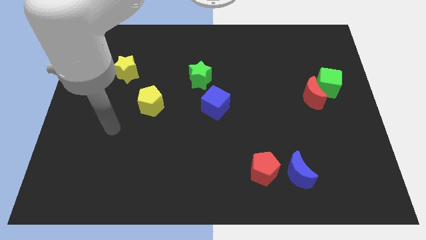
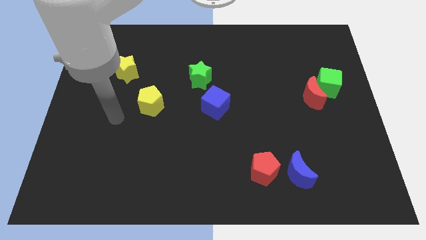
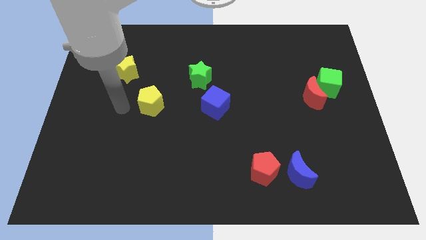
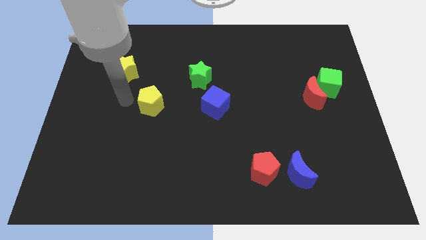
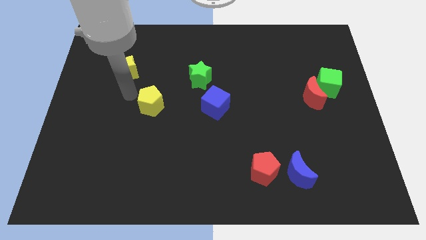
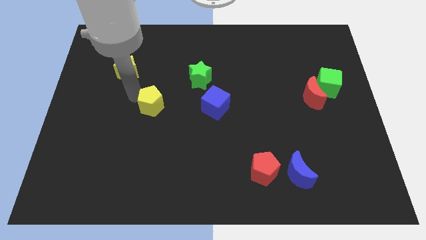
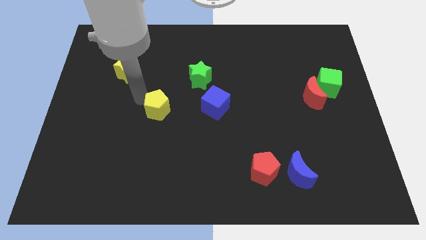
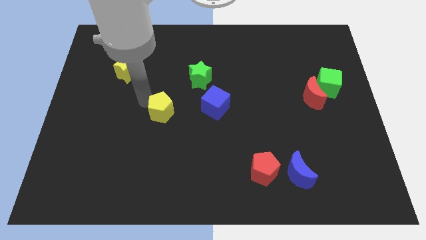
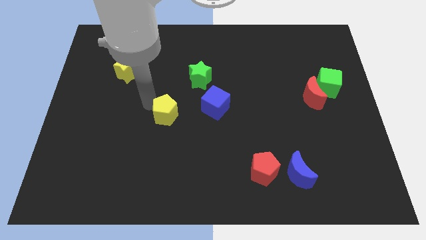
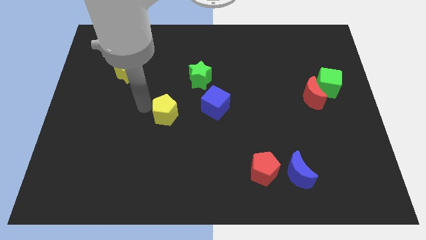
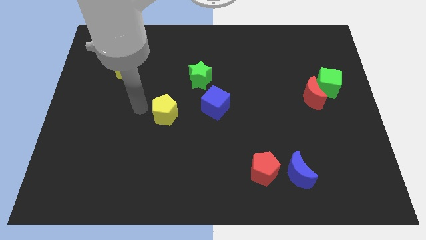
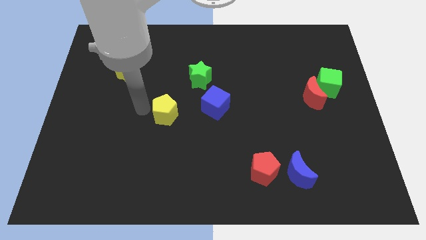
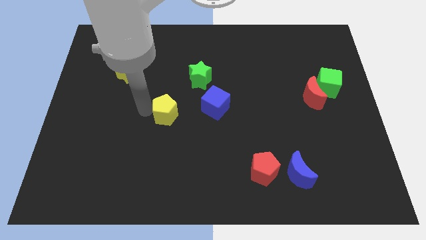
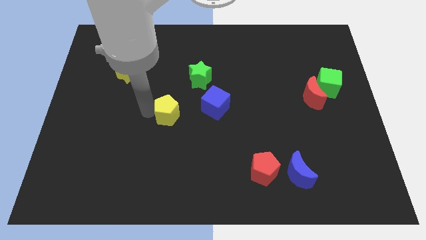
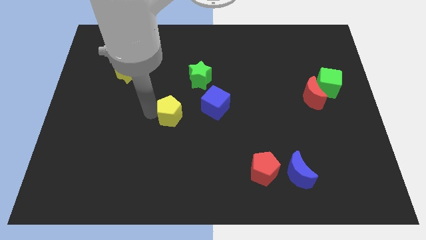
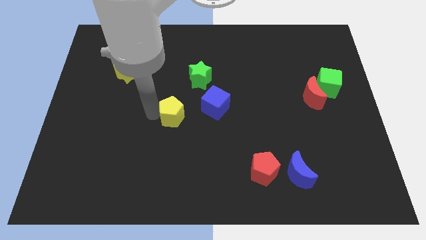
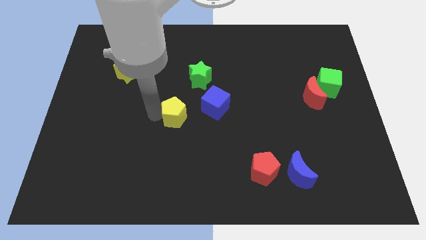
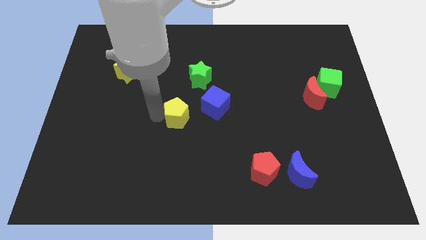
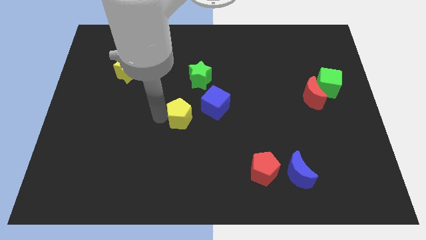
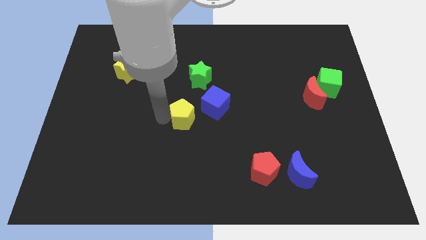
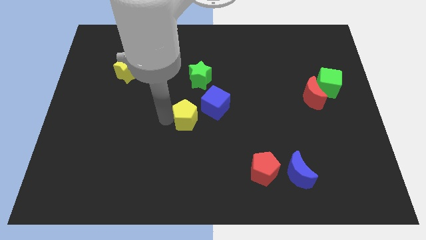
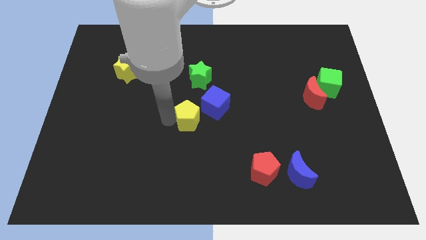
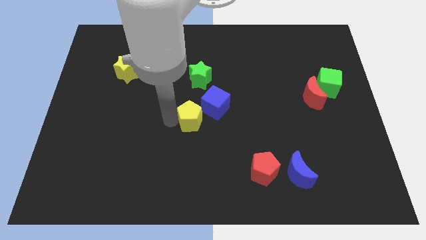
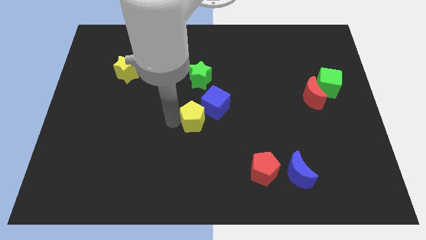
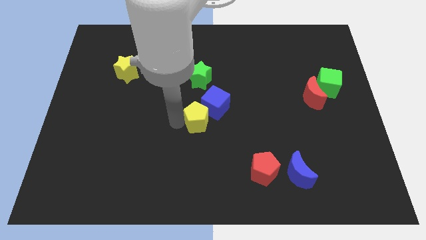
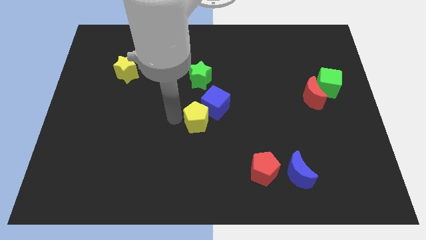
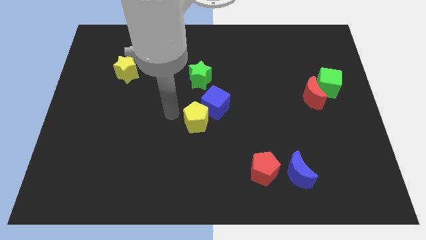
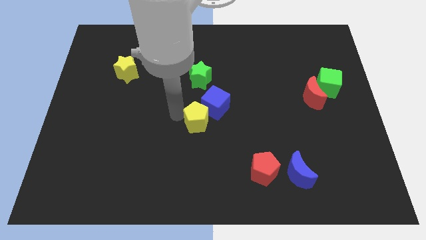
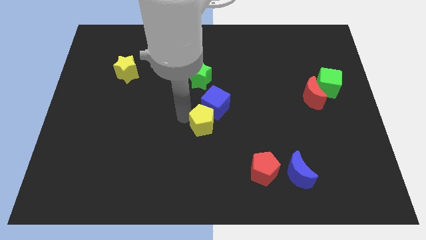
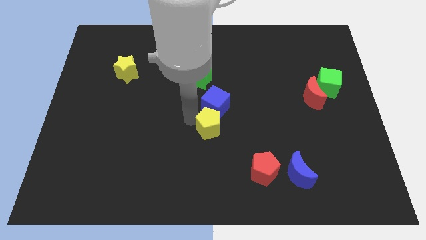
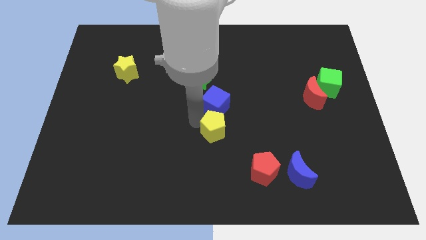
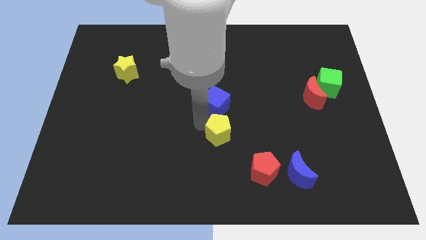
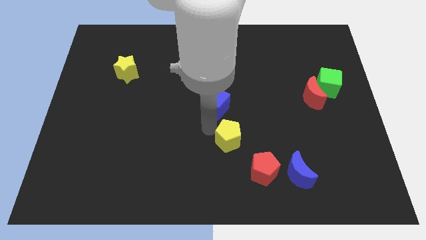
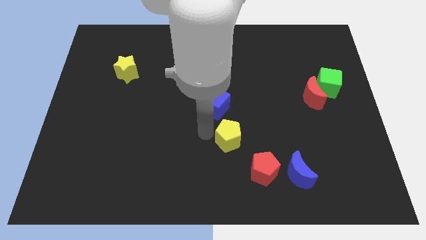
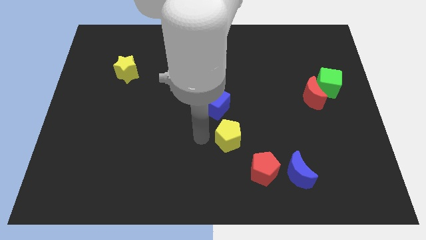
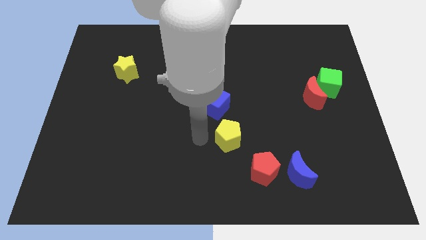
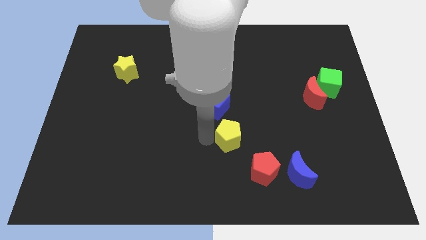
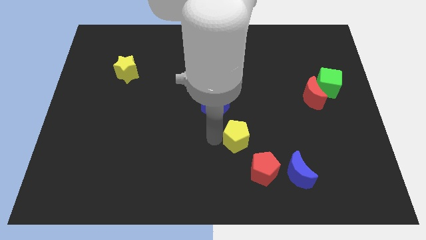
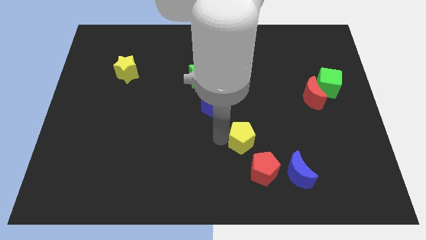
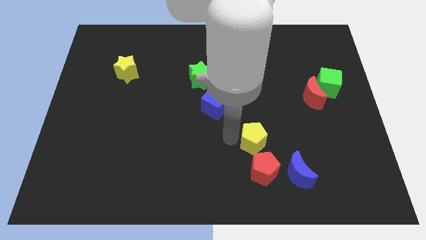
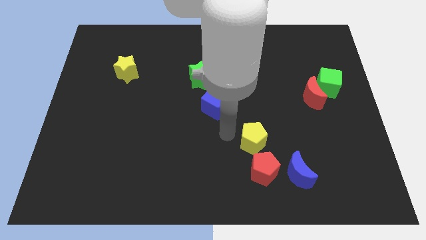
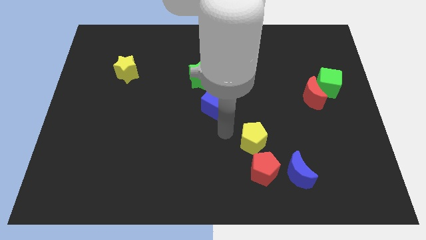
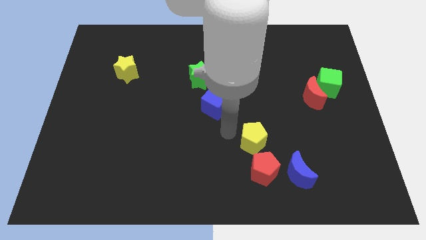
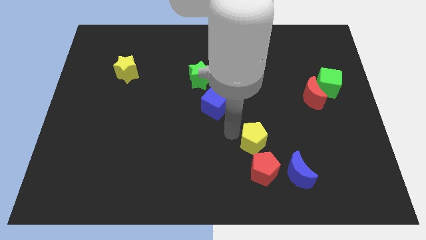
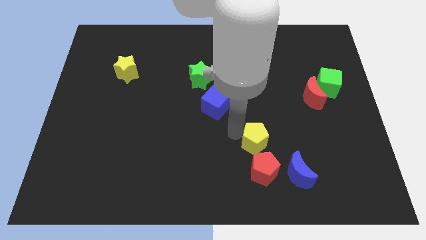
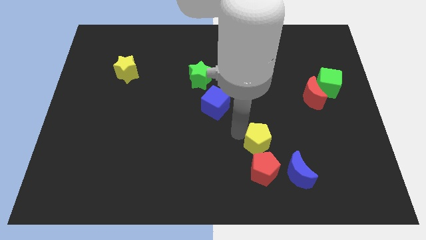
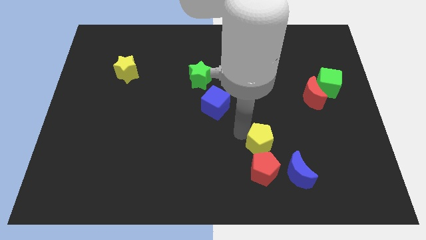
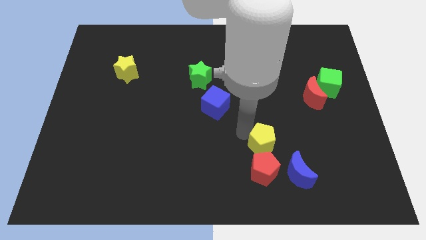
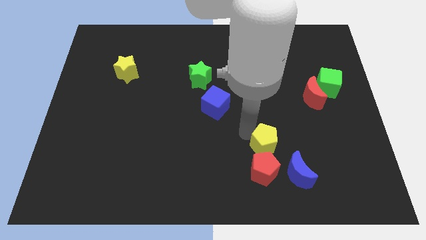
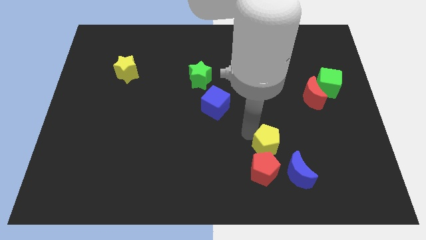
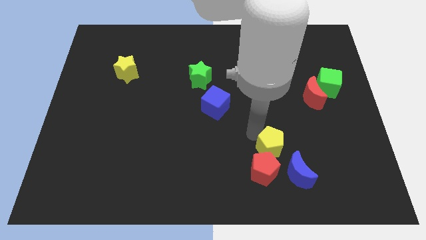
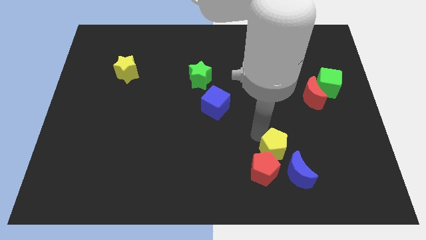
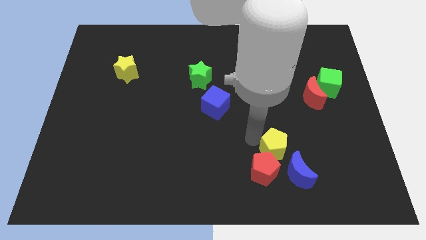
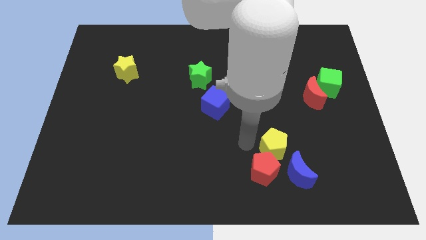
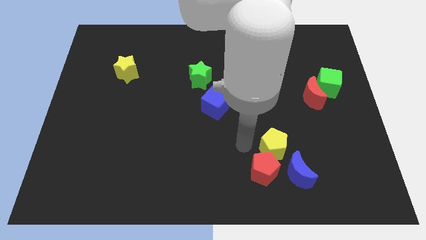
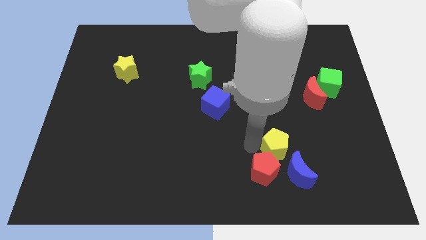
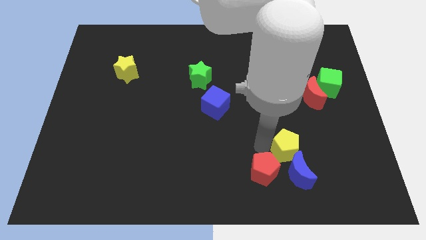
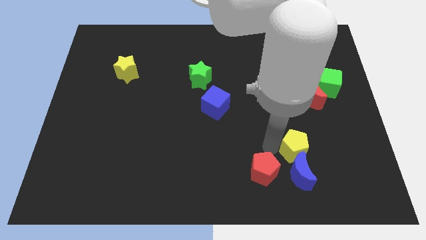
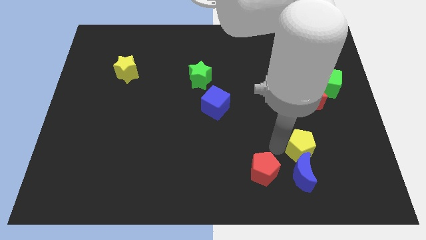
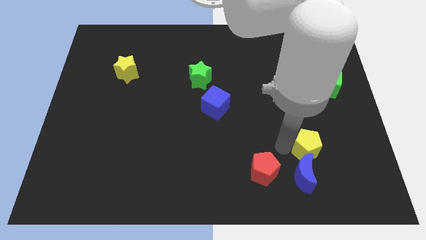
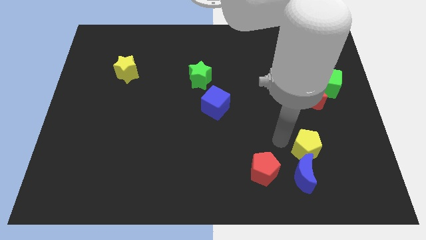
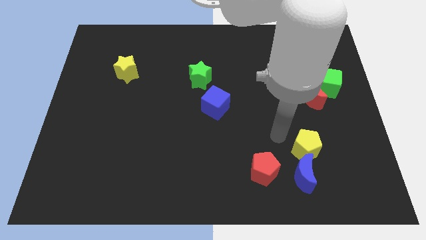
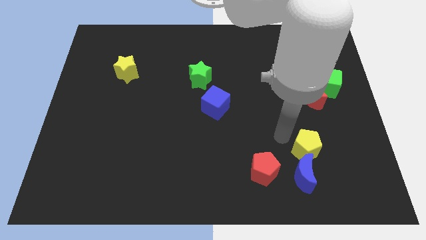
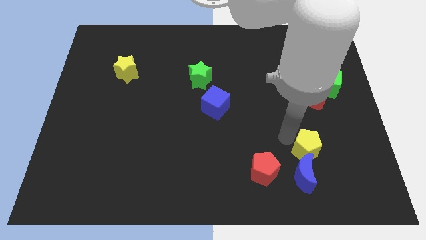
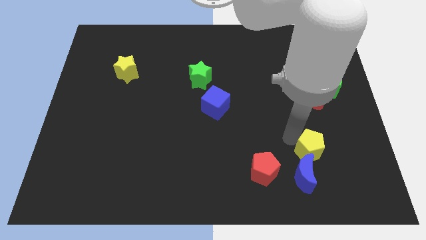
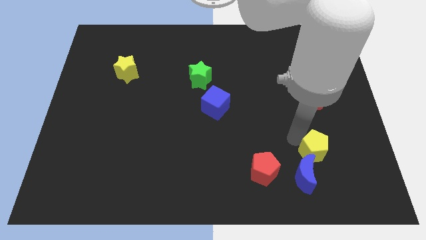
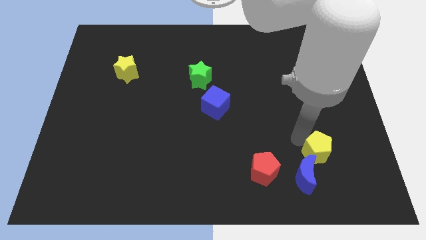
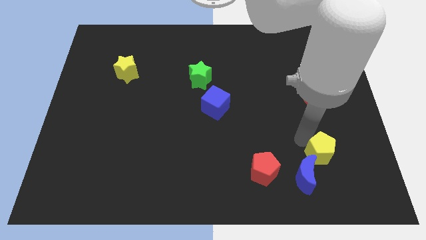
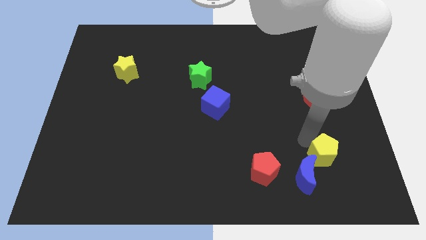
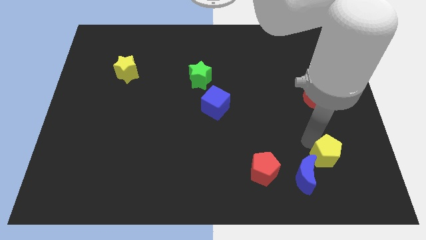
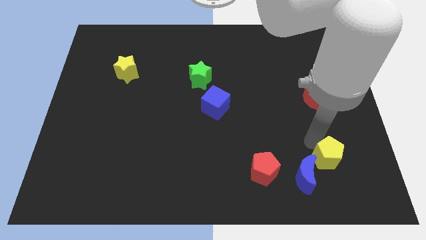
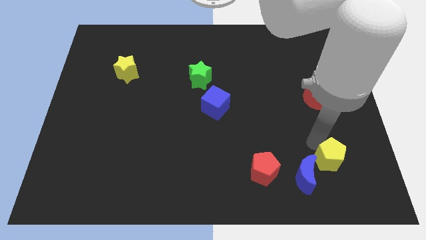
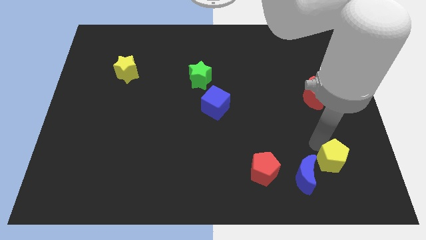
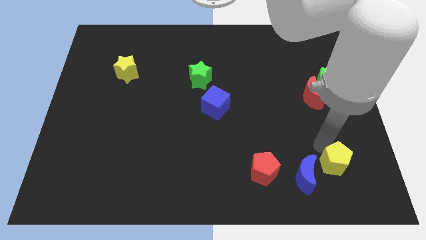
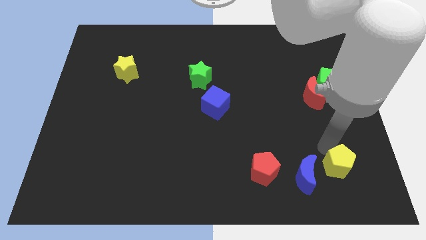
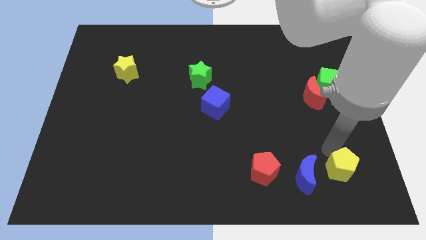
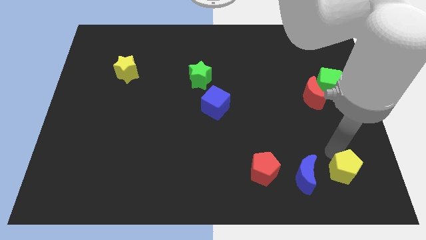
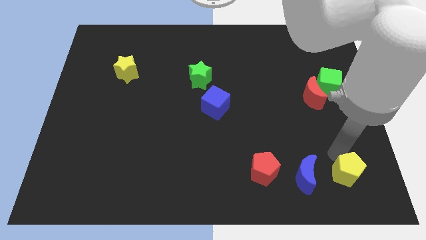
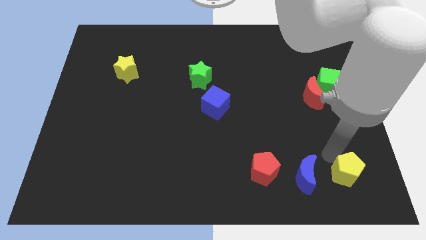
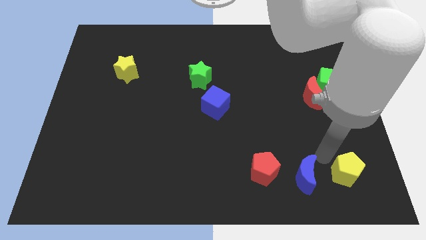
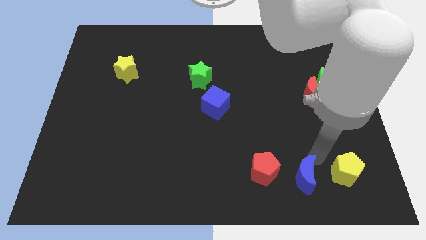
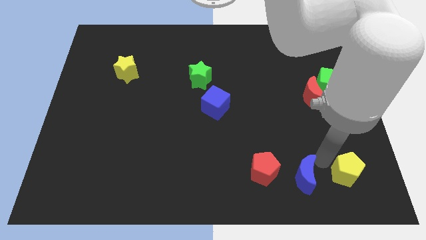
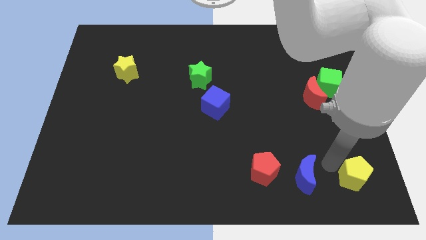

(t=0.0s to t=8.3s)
slide the yellow pentagon to the bottom right corner
